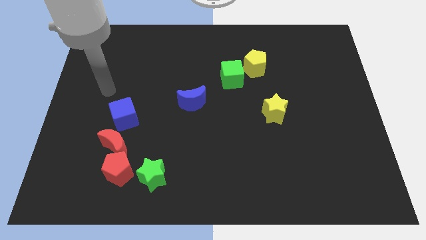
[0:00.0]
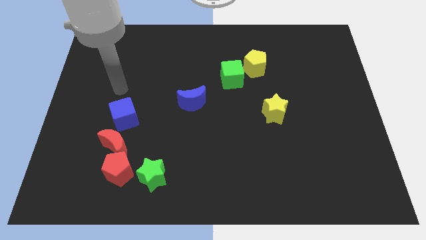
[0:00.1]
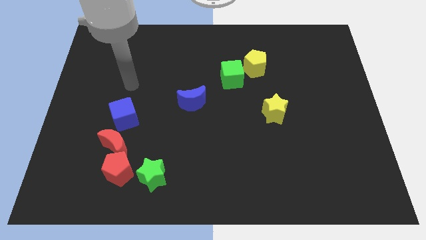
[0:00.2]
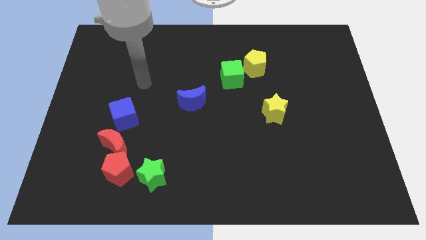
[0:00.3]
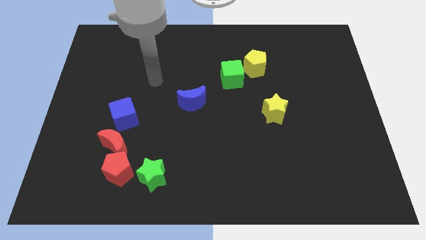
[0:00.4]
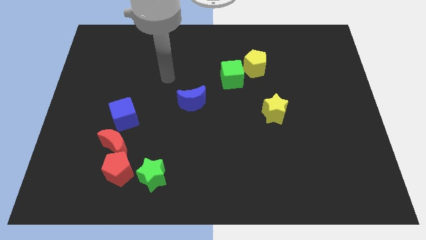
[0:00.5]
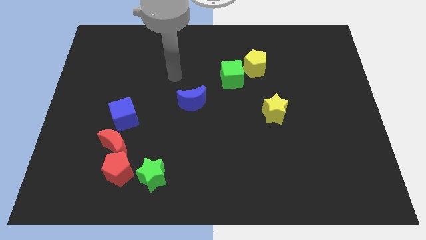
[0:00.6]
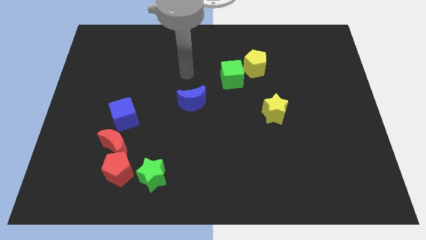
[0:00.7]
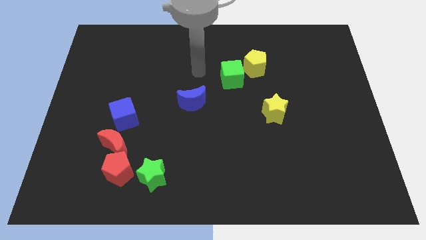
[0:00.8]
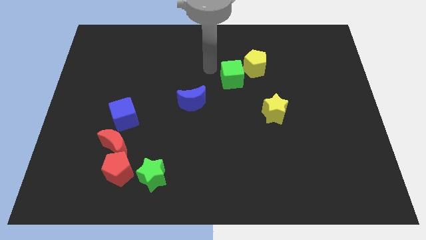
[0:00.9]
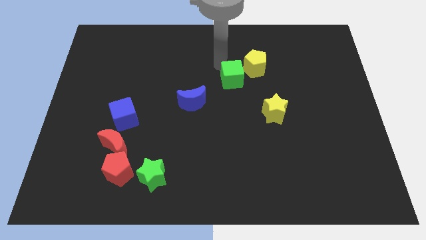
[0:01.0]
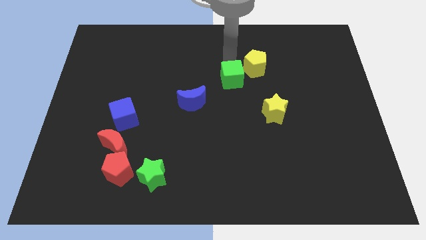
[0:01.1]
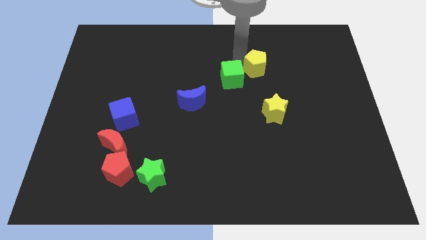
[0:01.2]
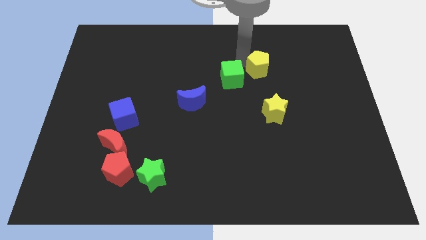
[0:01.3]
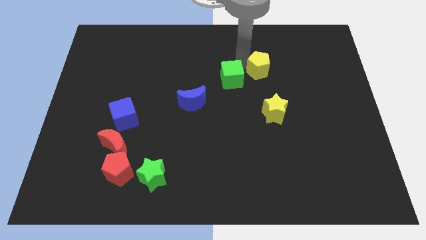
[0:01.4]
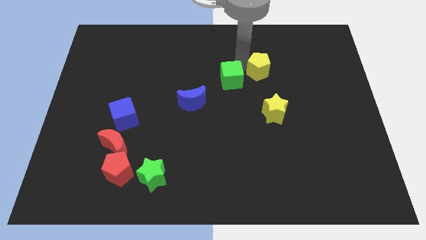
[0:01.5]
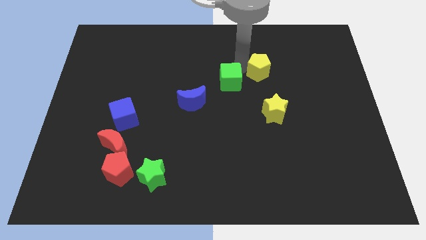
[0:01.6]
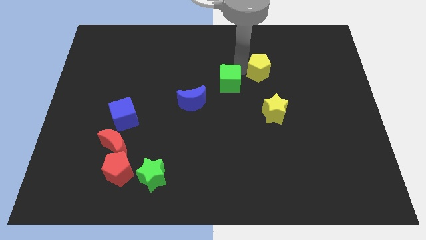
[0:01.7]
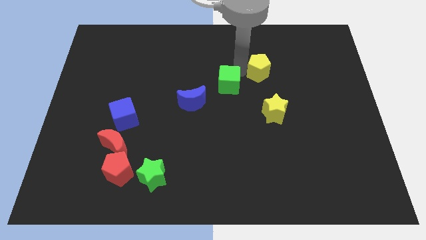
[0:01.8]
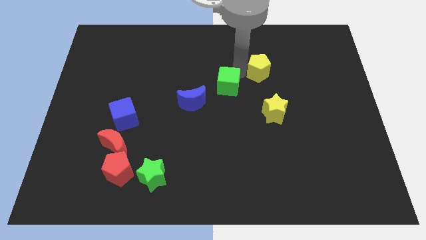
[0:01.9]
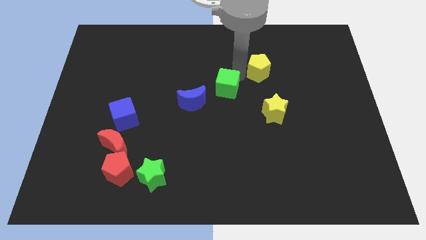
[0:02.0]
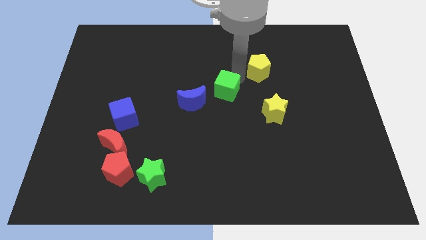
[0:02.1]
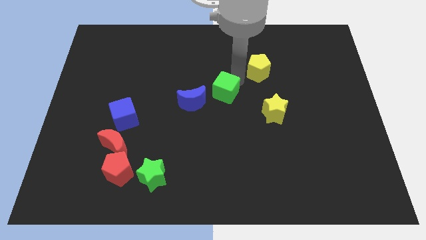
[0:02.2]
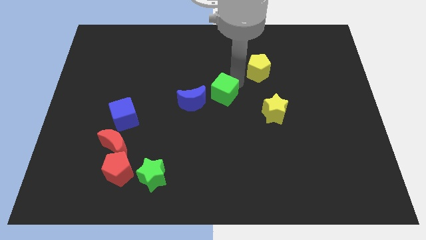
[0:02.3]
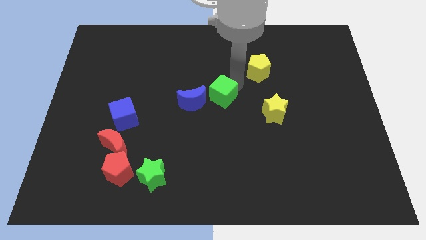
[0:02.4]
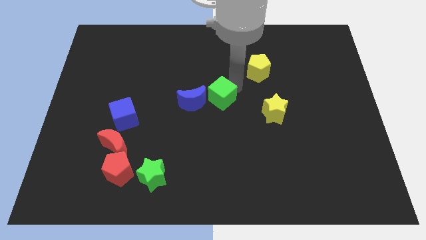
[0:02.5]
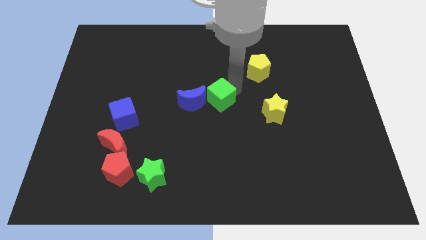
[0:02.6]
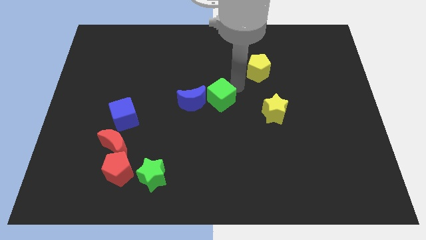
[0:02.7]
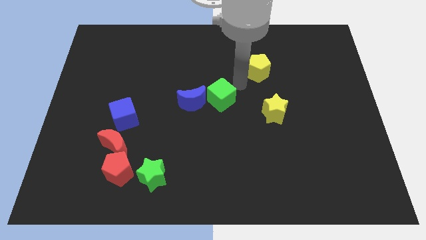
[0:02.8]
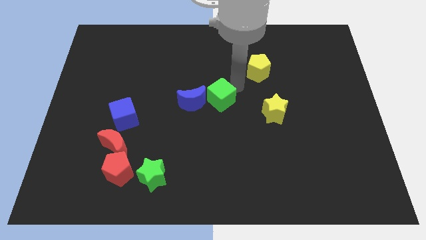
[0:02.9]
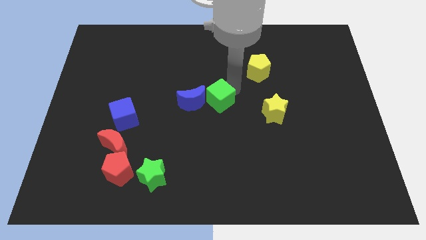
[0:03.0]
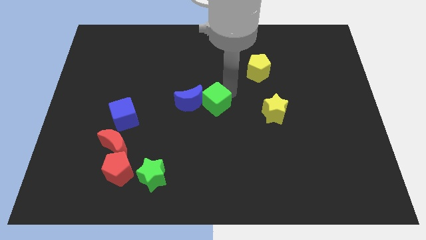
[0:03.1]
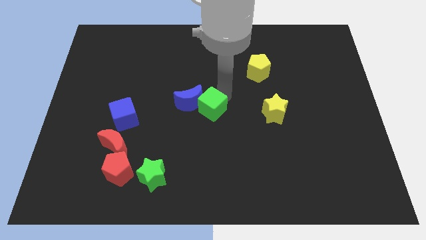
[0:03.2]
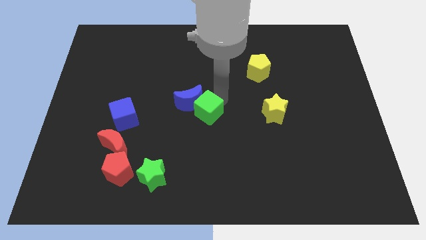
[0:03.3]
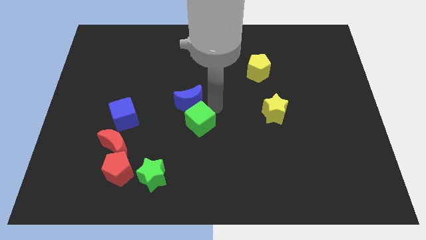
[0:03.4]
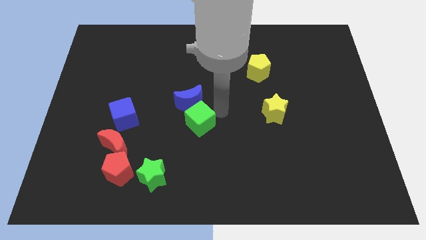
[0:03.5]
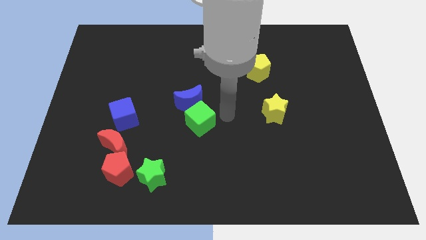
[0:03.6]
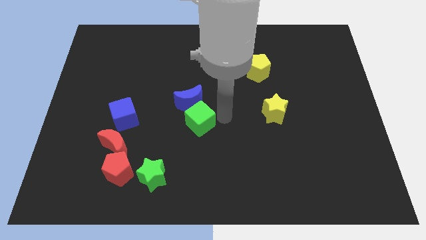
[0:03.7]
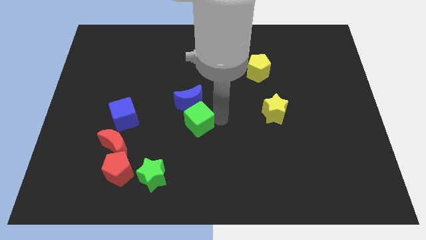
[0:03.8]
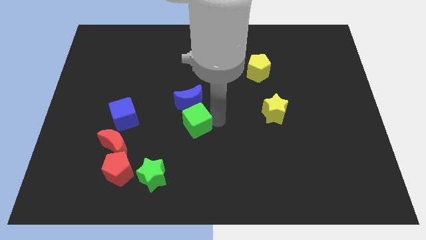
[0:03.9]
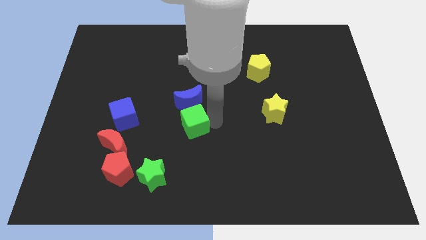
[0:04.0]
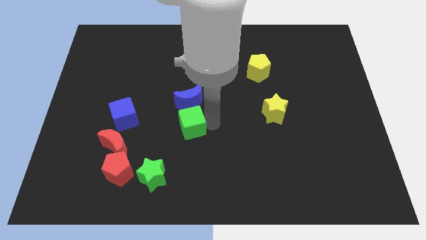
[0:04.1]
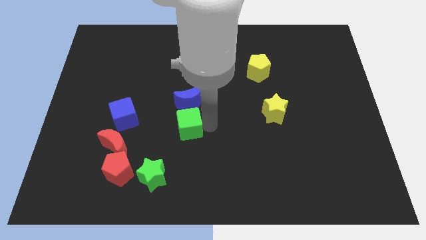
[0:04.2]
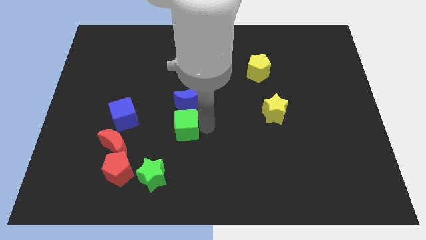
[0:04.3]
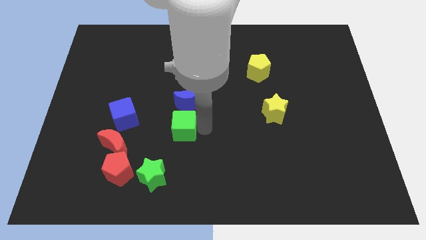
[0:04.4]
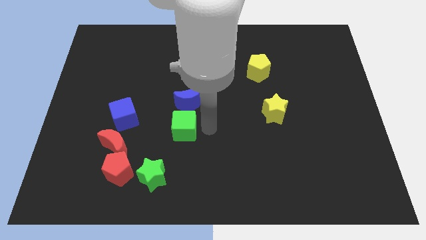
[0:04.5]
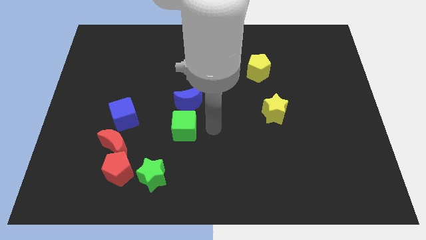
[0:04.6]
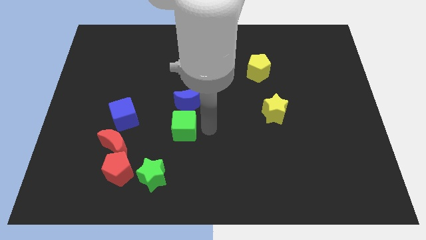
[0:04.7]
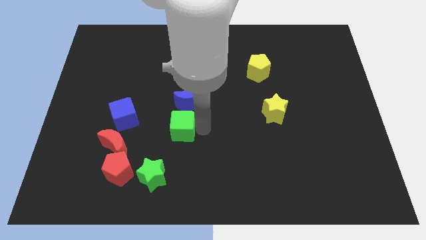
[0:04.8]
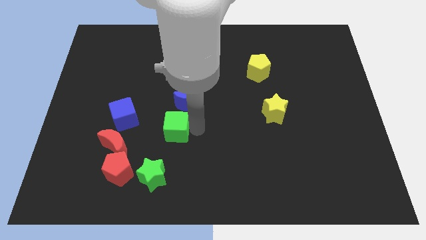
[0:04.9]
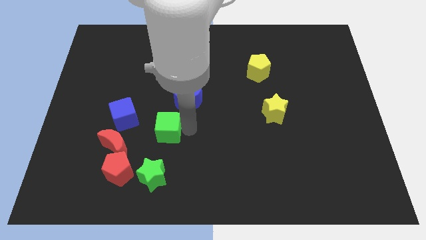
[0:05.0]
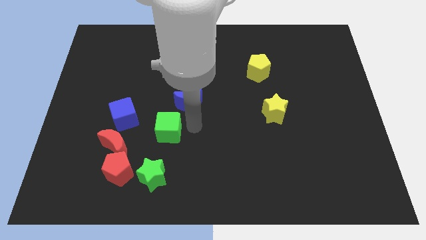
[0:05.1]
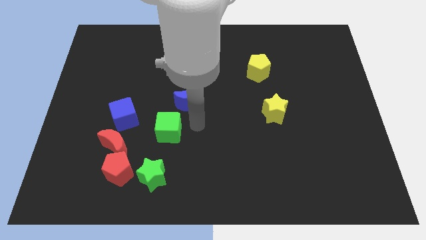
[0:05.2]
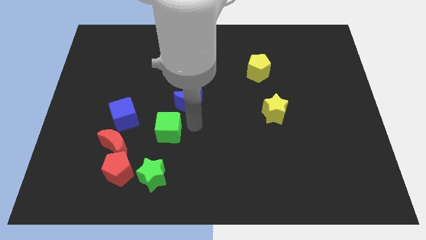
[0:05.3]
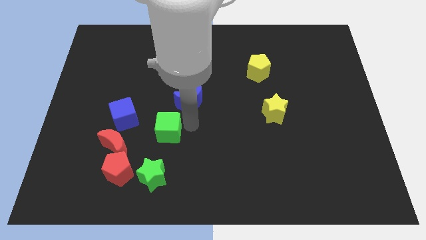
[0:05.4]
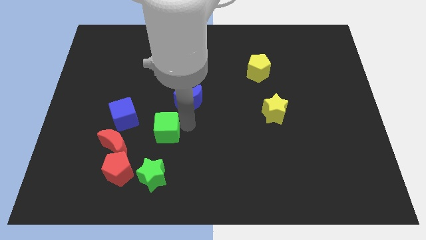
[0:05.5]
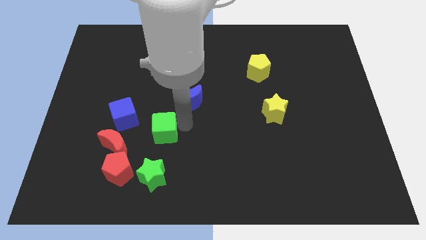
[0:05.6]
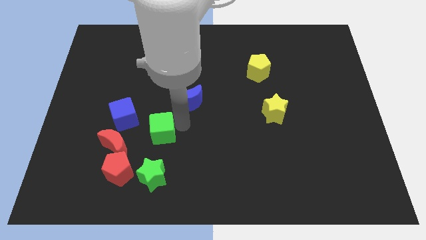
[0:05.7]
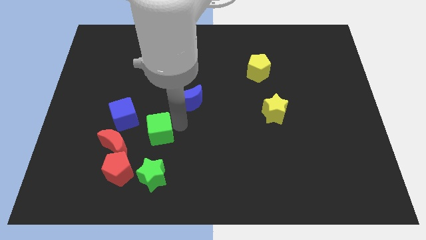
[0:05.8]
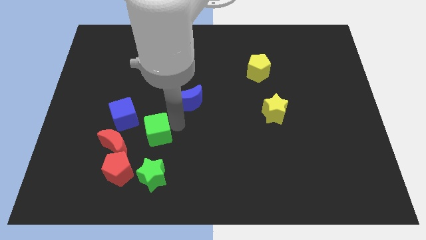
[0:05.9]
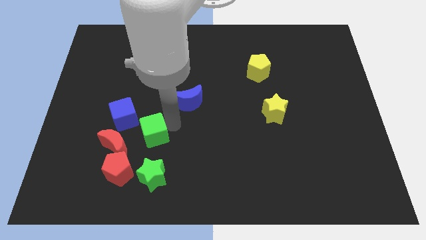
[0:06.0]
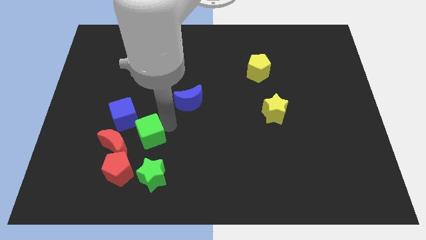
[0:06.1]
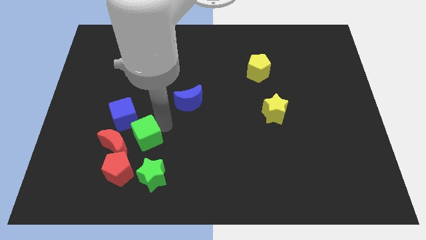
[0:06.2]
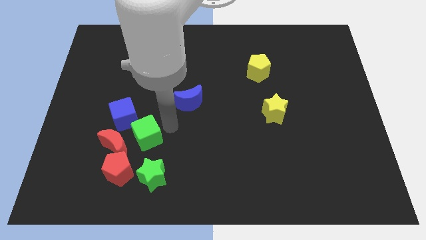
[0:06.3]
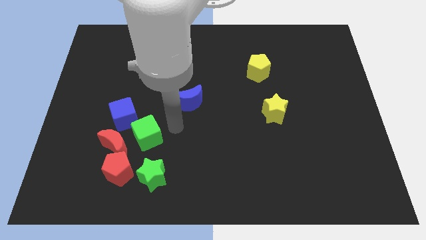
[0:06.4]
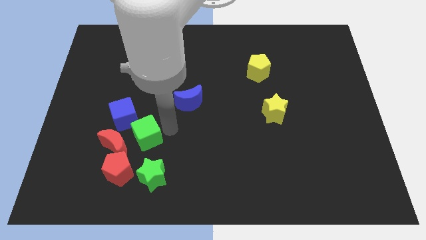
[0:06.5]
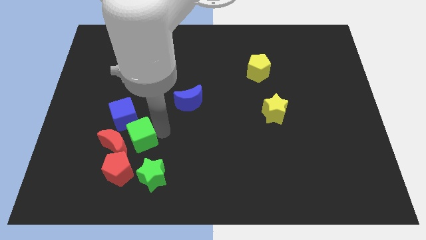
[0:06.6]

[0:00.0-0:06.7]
put the green cube close to the red moon
